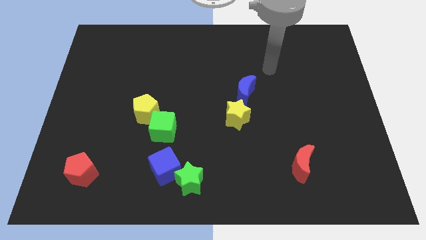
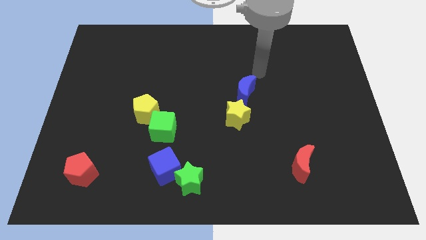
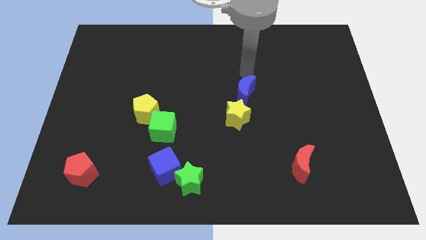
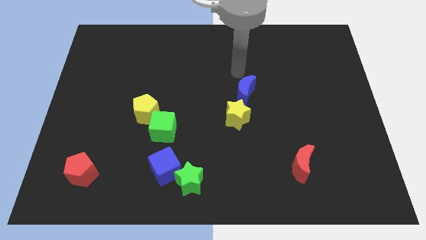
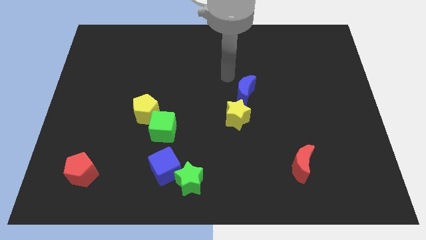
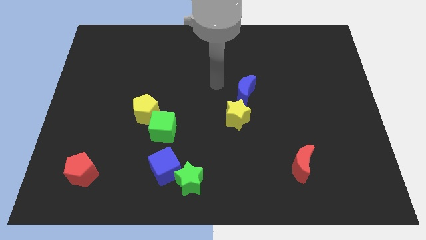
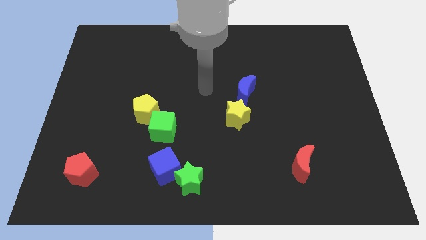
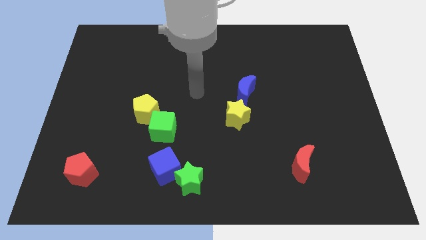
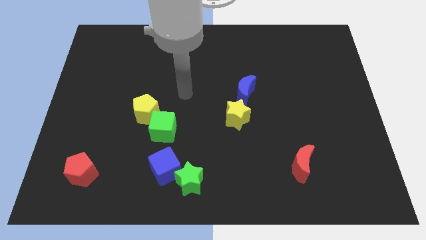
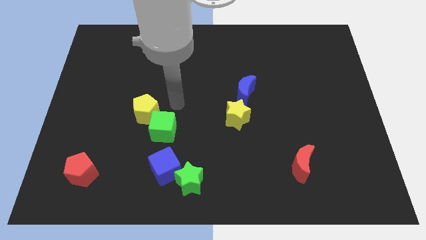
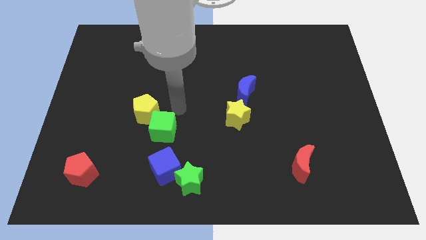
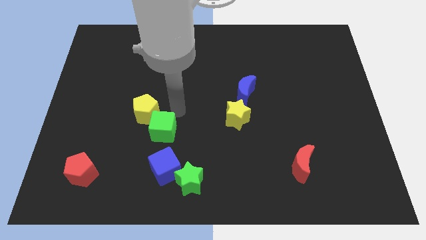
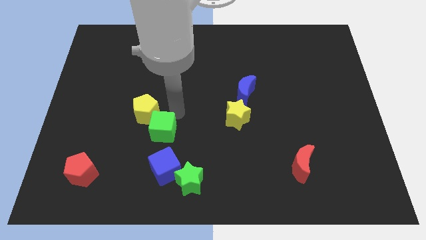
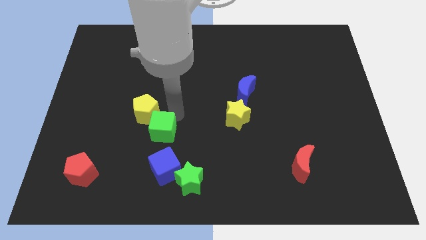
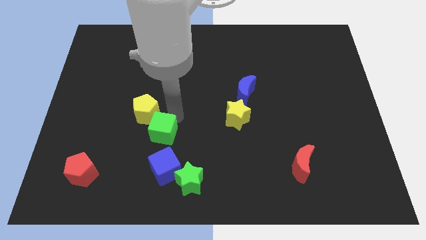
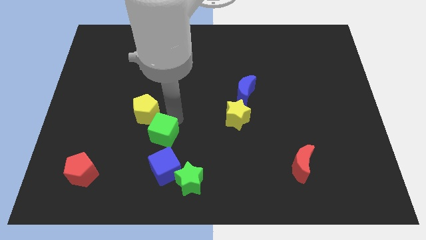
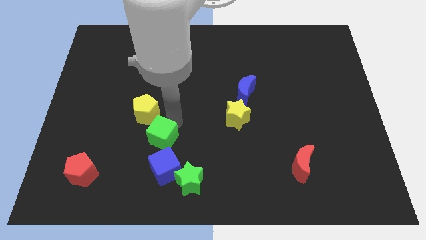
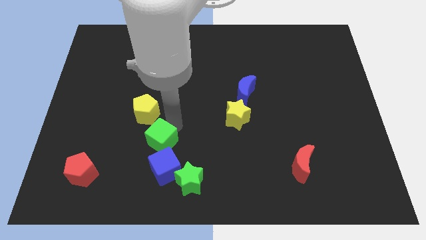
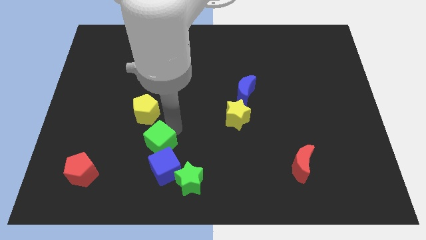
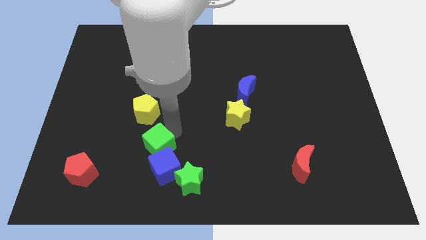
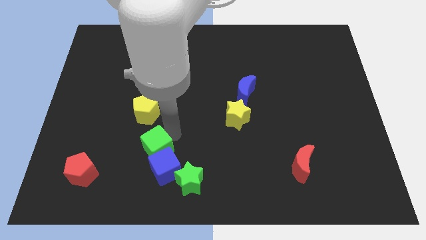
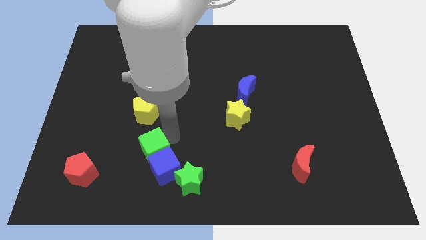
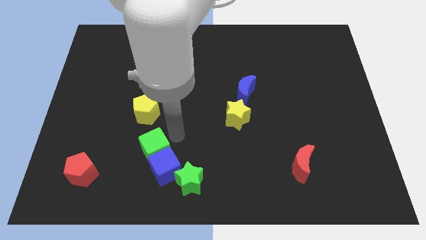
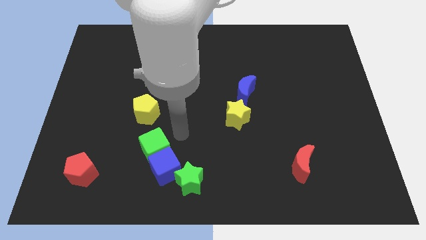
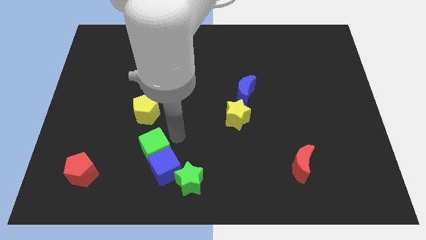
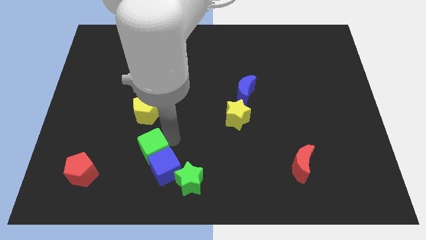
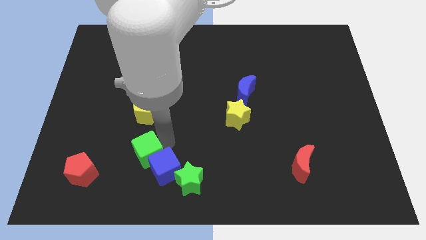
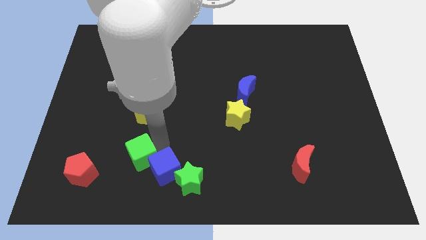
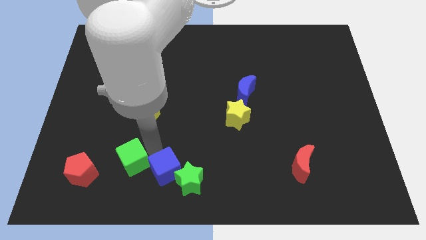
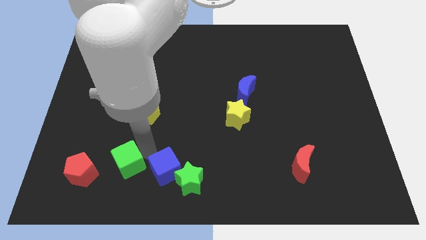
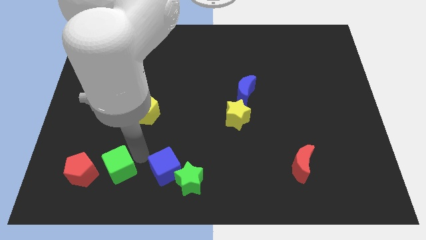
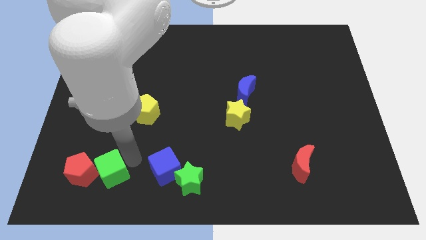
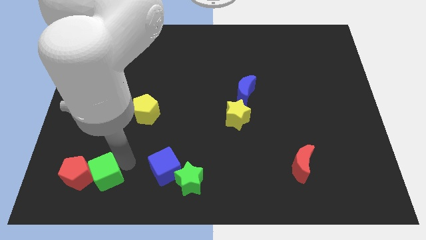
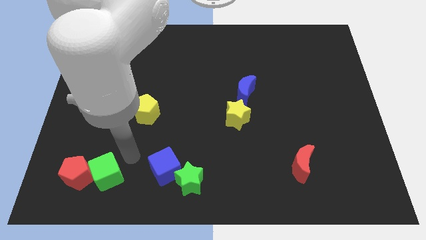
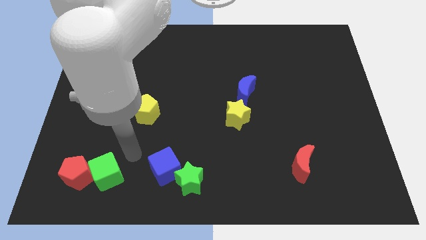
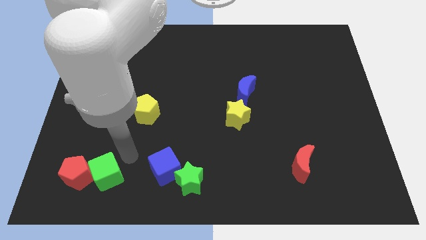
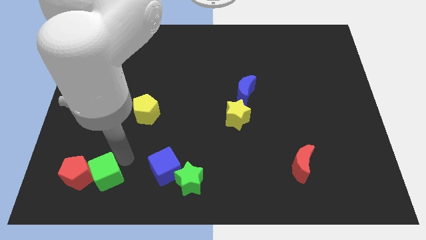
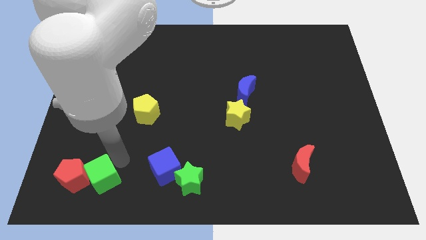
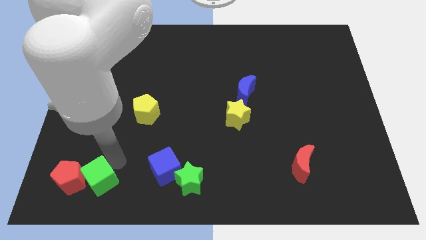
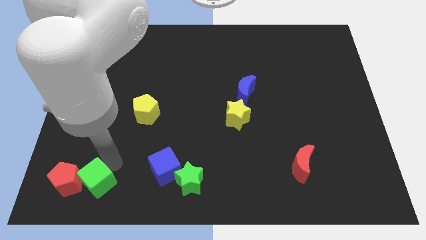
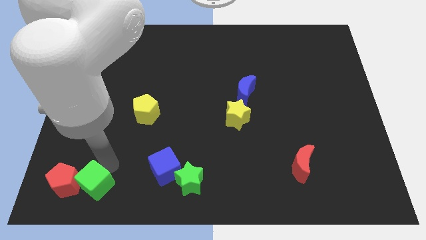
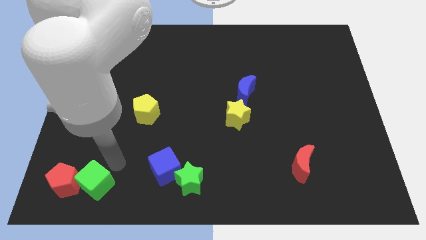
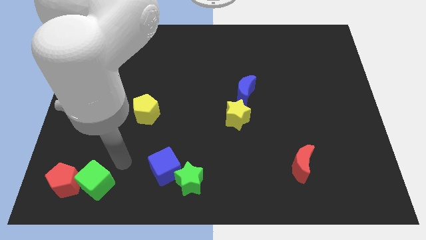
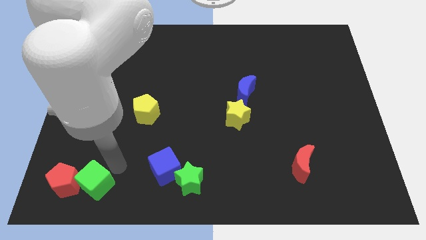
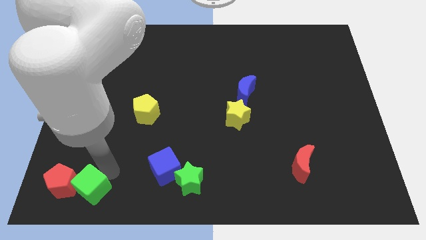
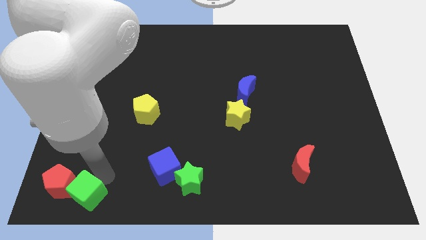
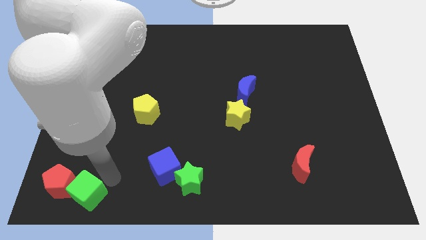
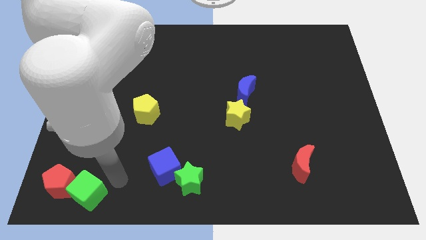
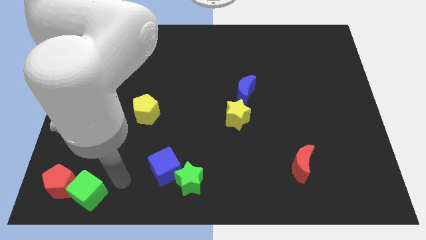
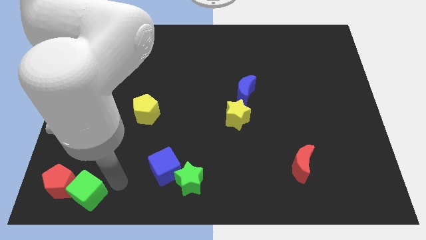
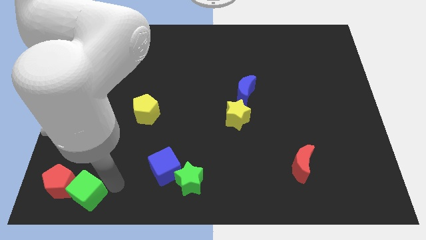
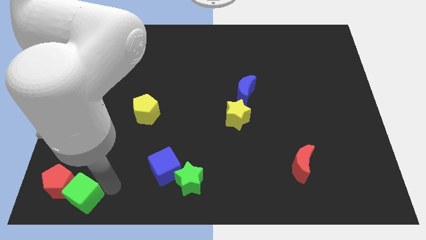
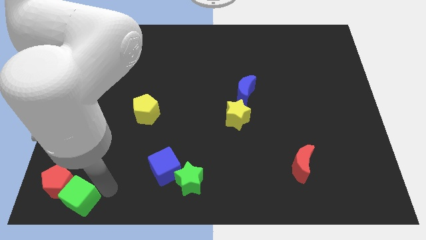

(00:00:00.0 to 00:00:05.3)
move the green cube to the lower left corner

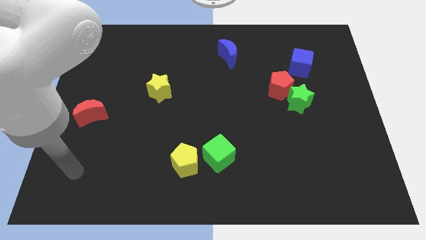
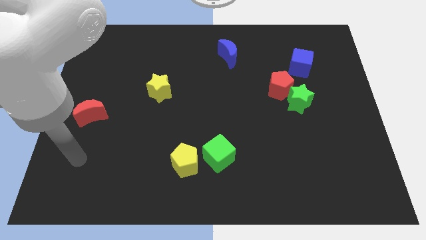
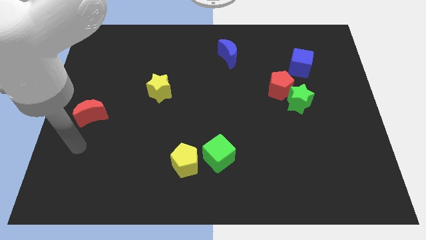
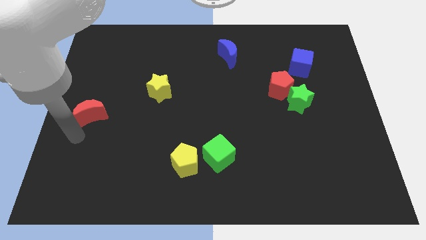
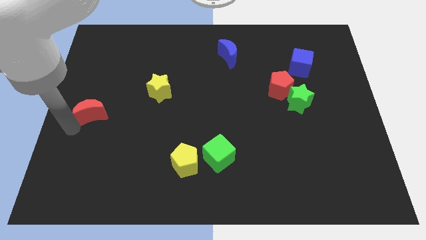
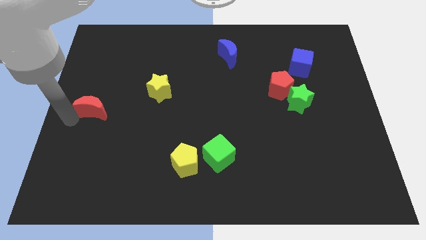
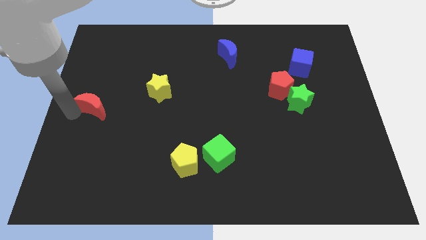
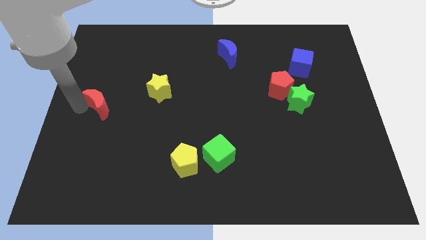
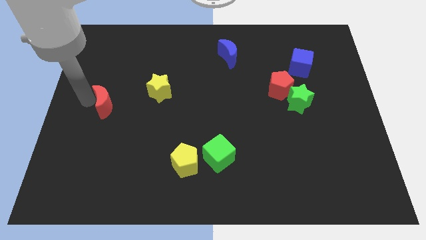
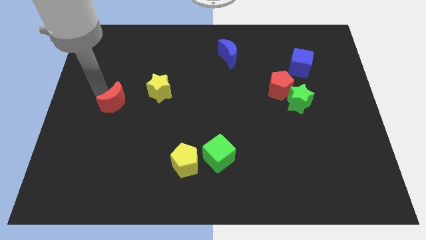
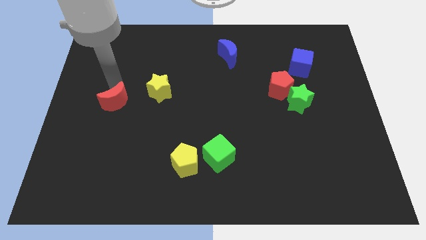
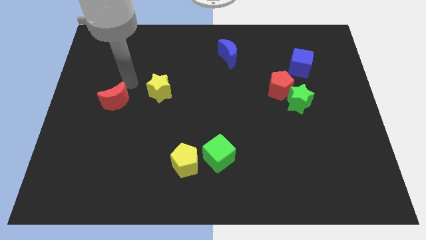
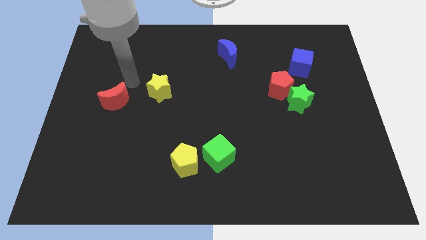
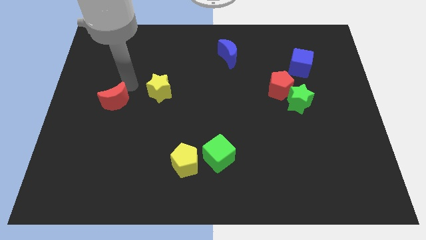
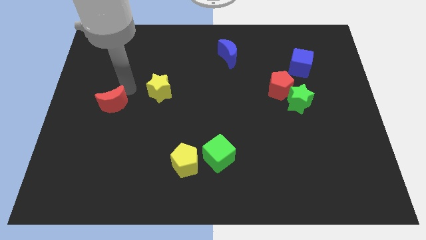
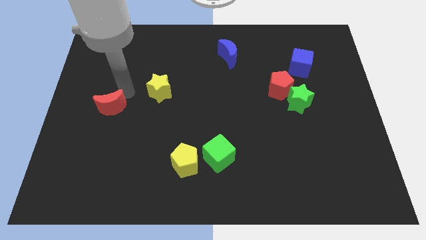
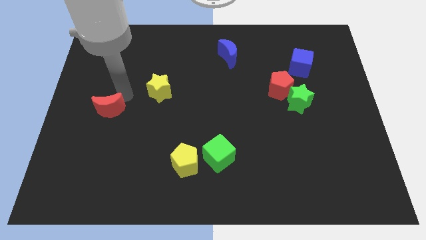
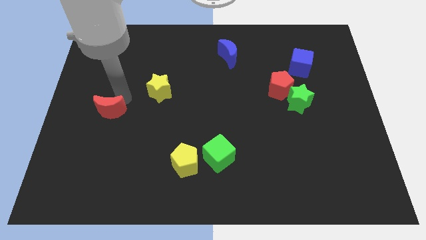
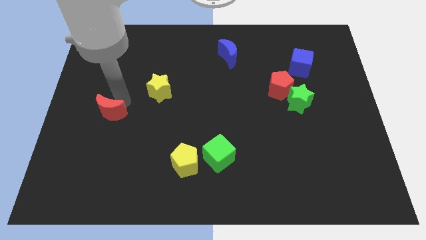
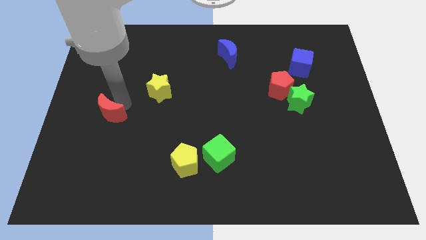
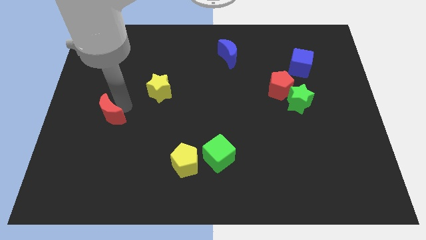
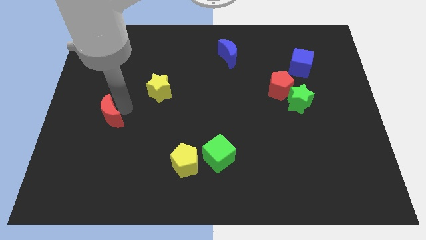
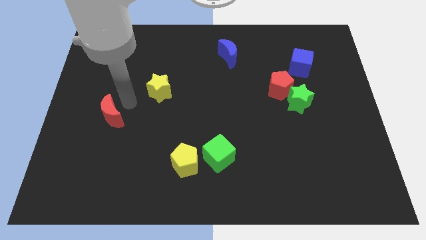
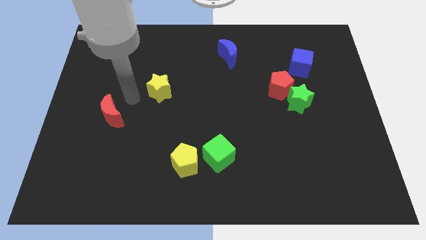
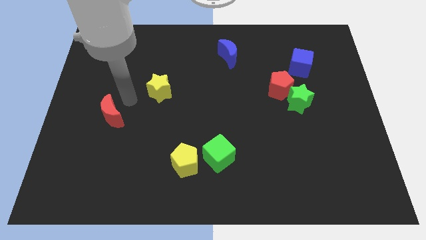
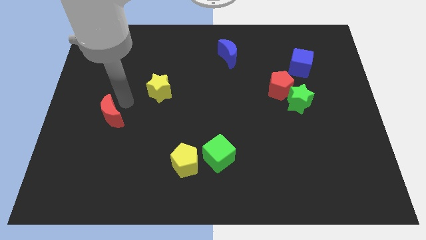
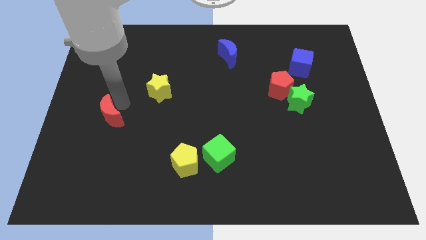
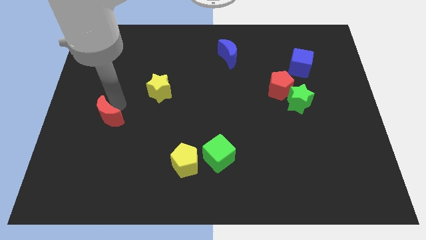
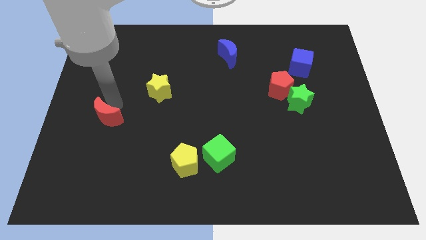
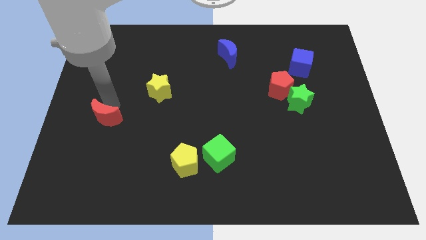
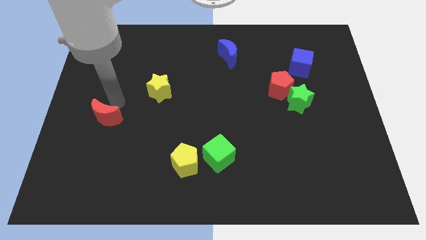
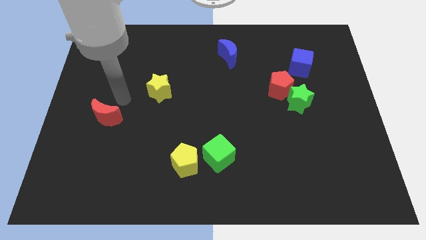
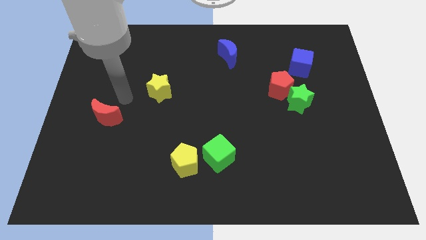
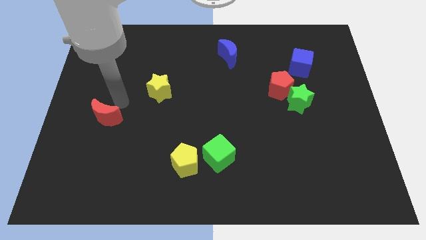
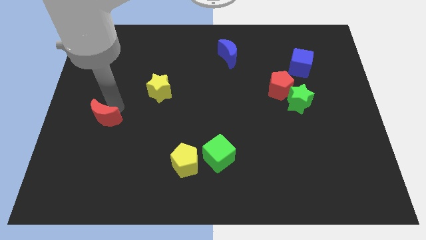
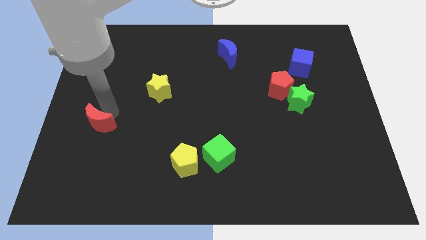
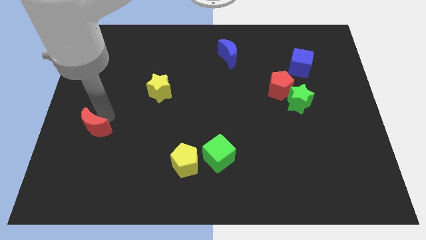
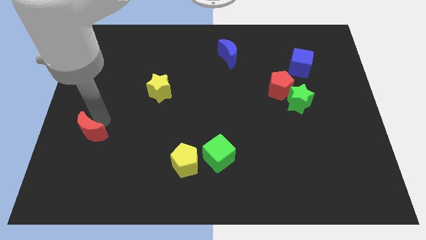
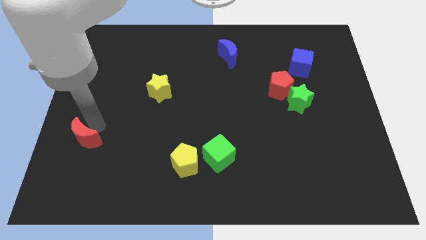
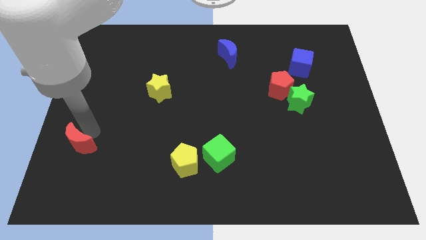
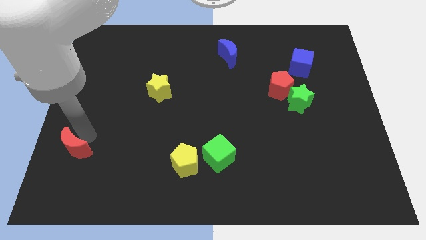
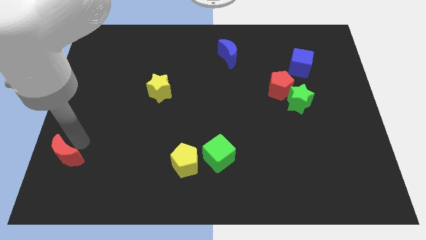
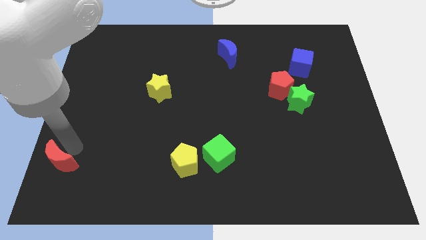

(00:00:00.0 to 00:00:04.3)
put the red moon to the lower left corner
